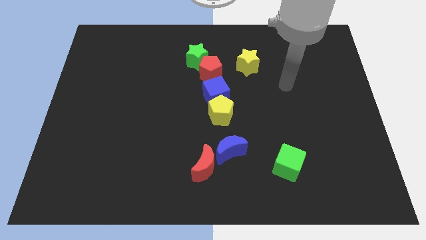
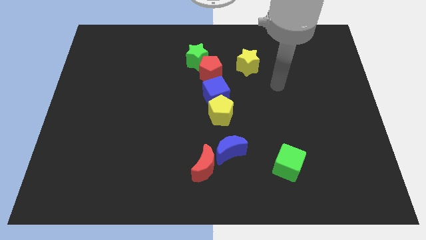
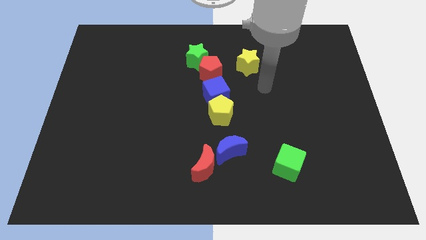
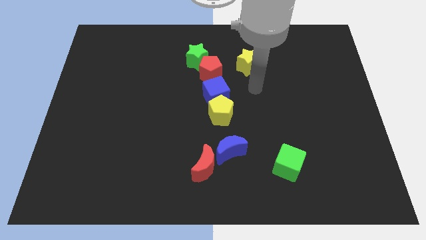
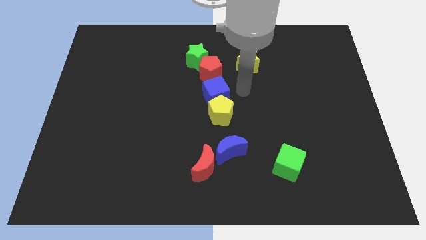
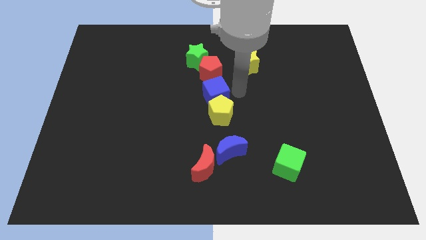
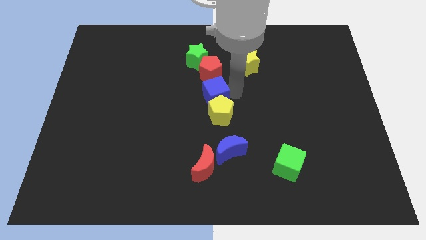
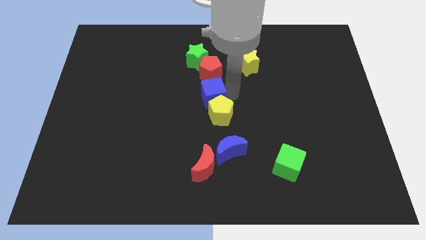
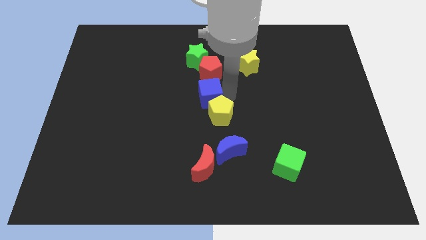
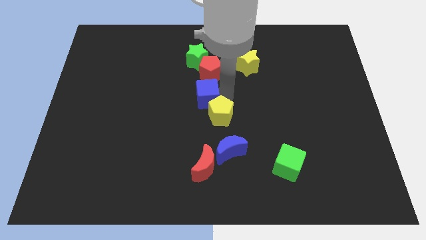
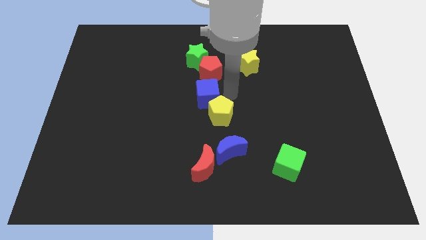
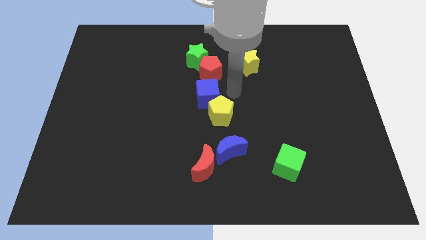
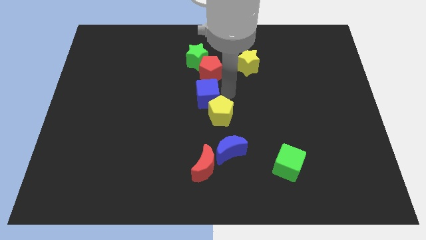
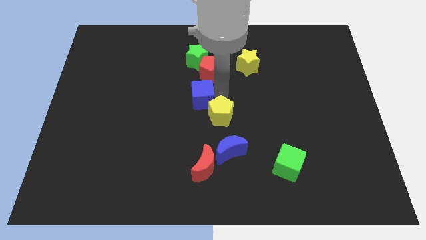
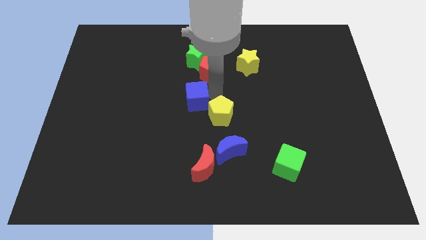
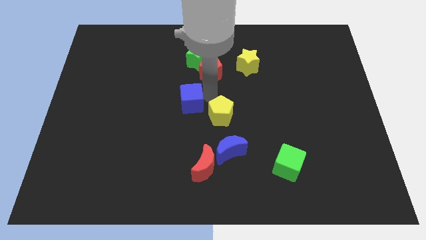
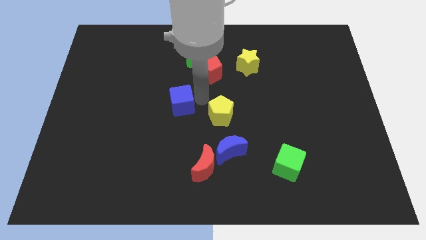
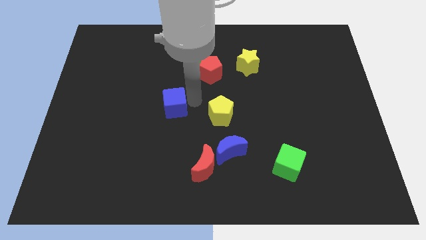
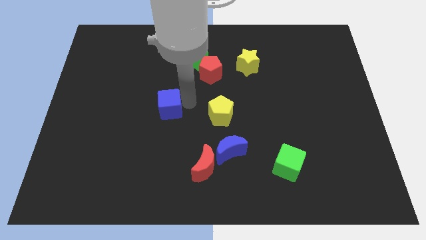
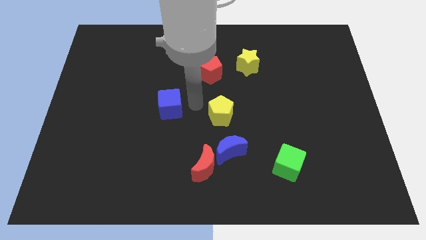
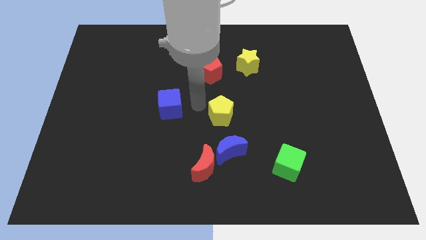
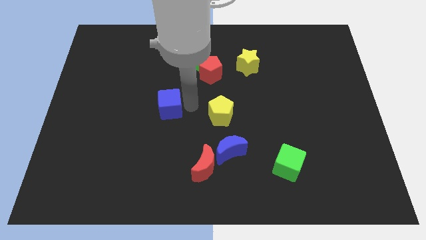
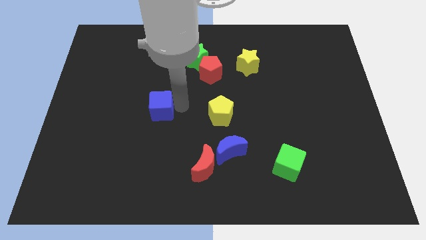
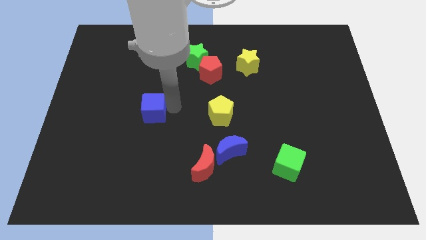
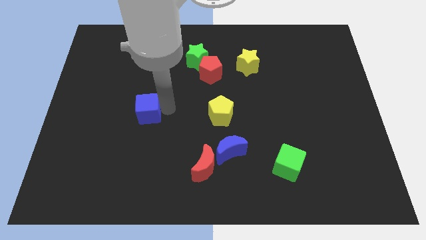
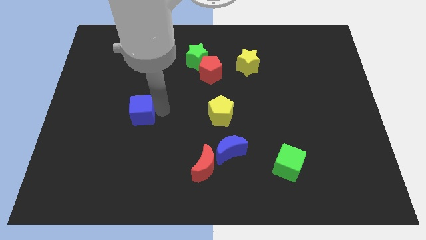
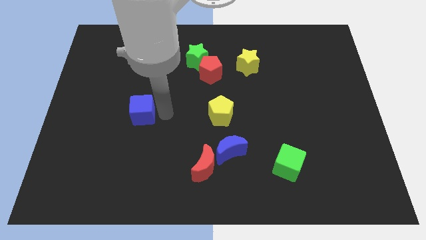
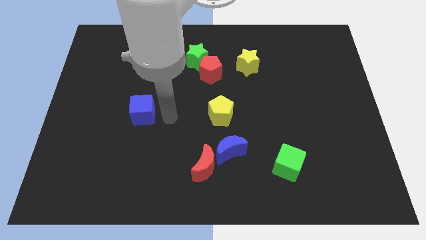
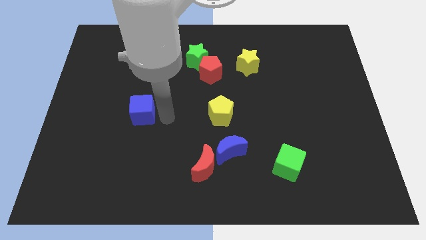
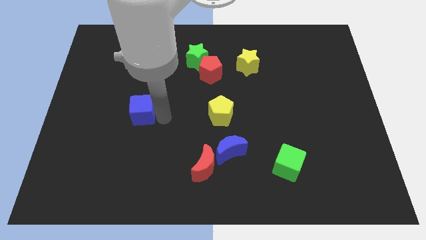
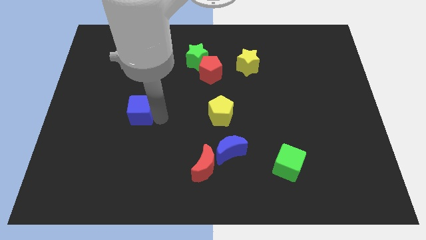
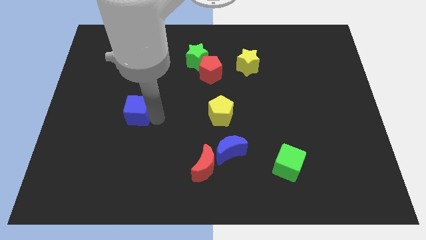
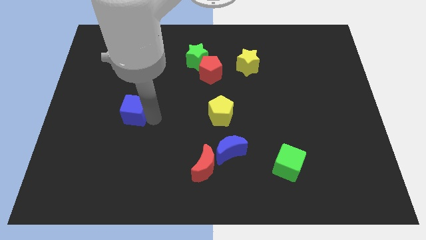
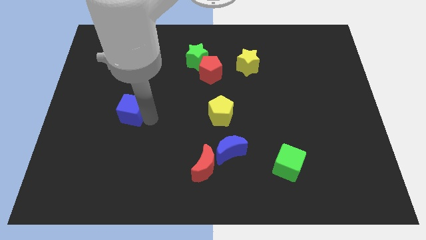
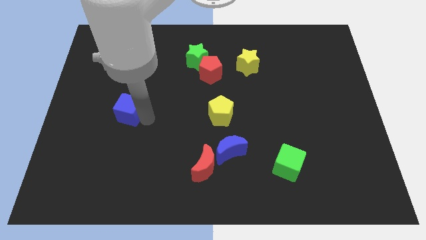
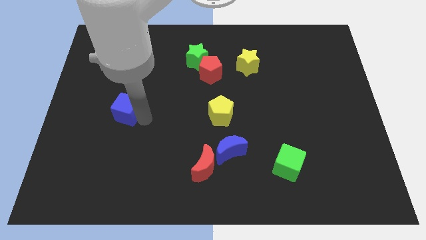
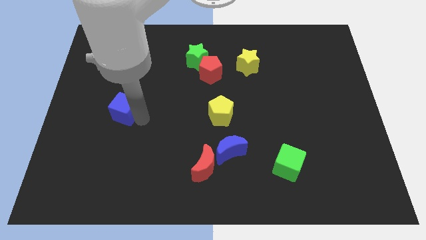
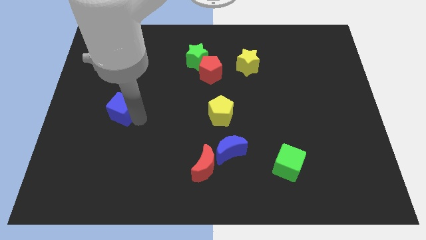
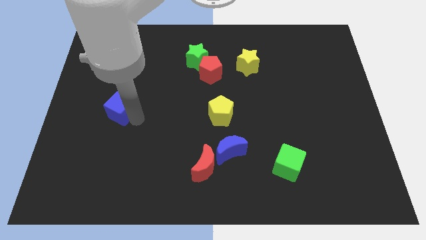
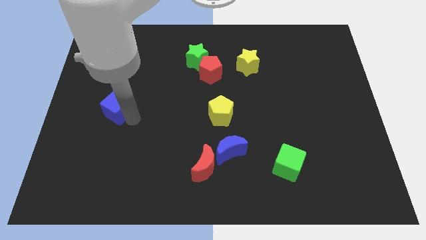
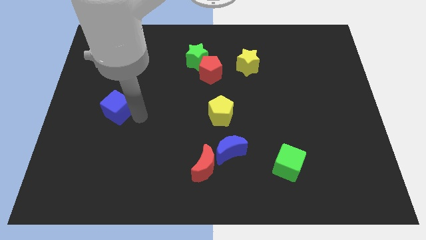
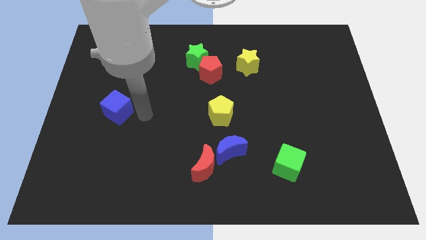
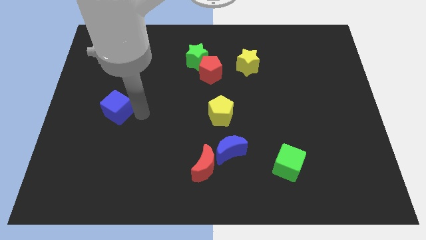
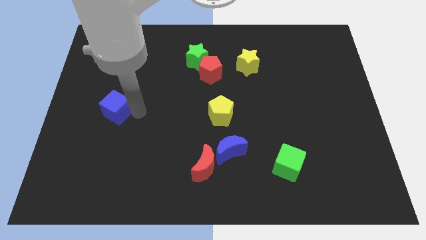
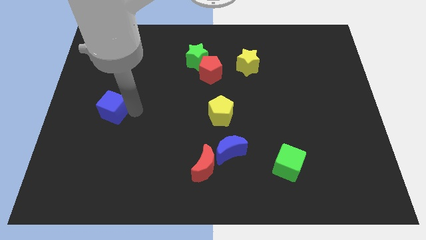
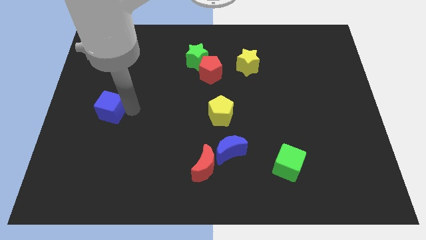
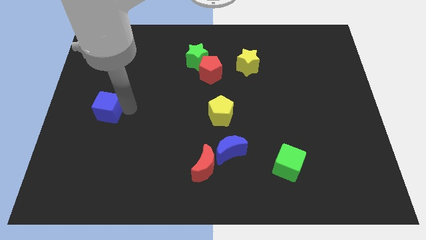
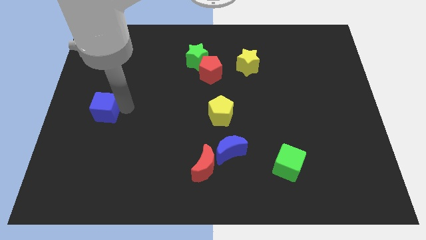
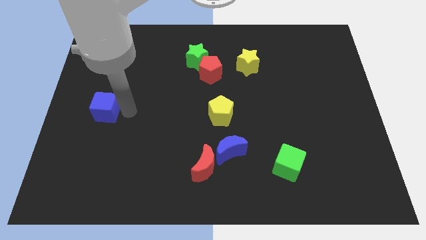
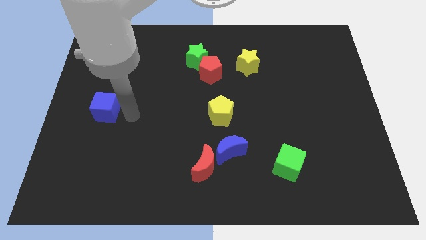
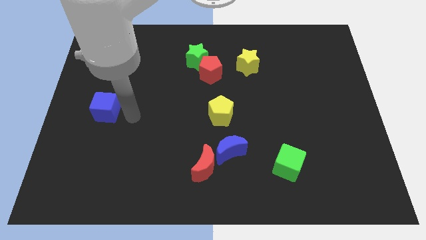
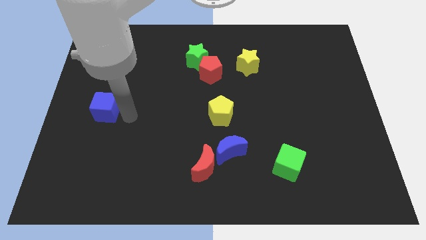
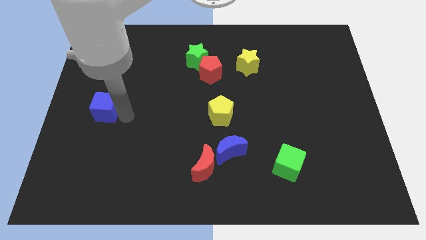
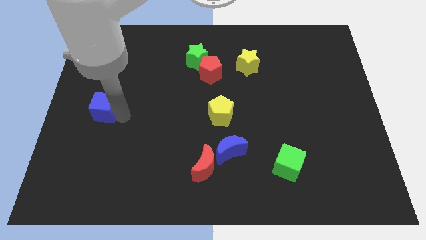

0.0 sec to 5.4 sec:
move the blue cube to the left side of the board
